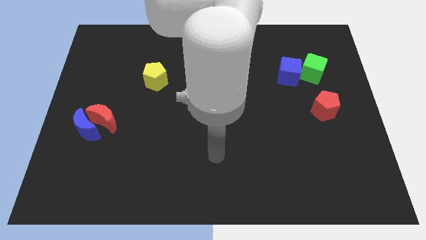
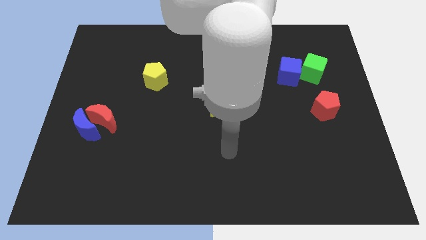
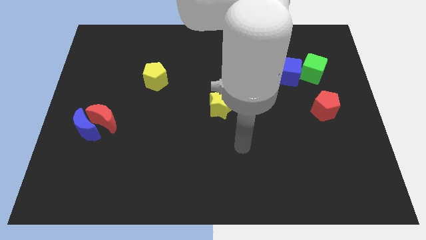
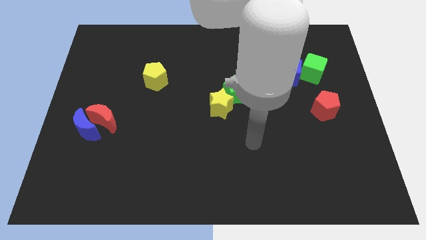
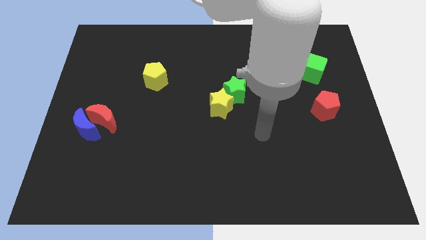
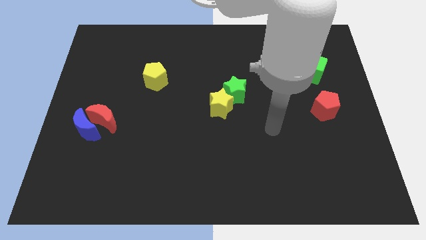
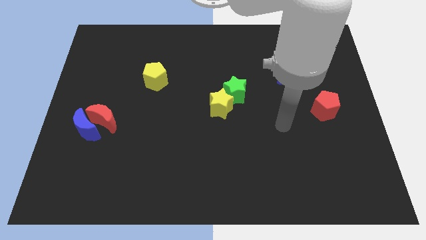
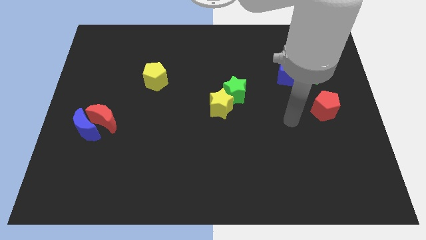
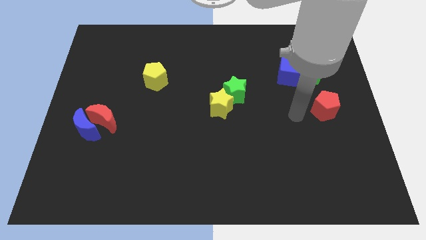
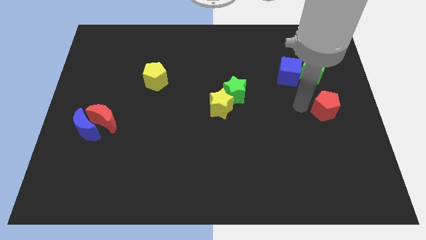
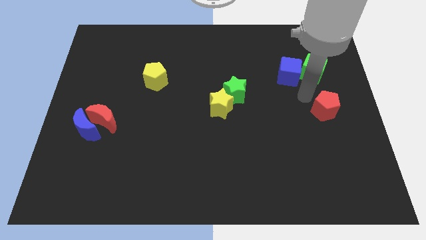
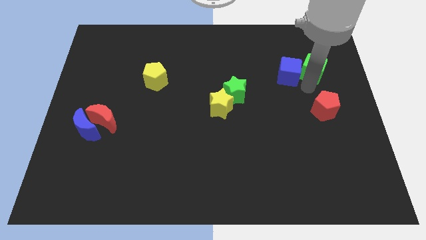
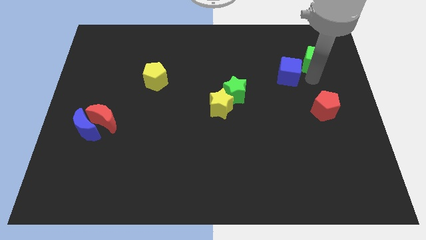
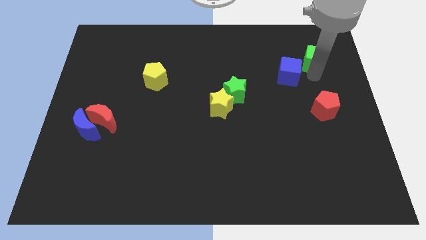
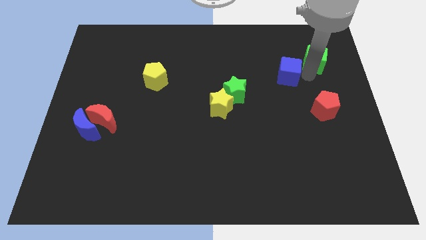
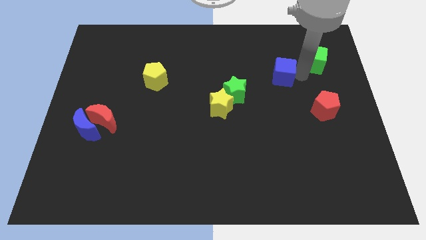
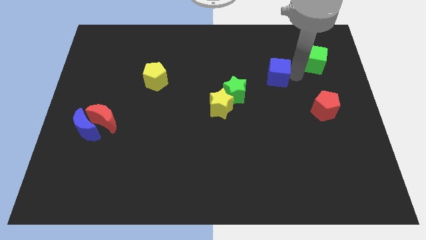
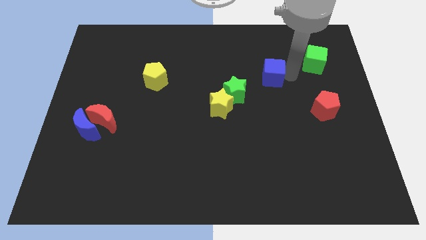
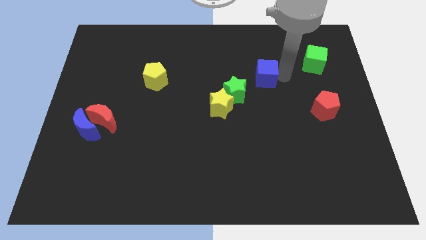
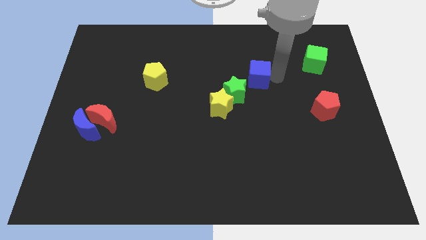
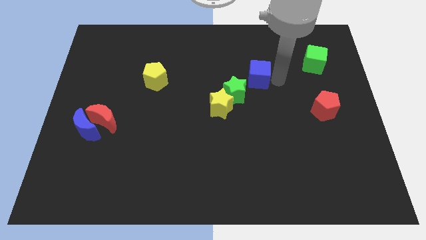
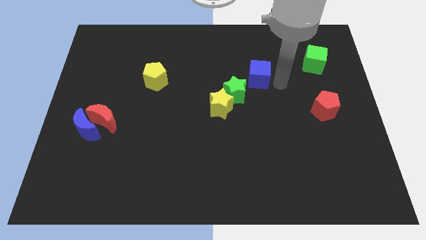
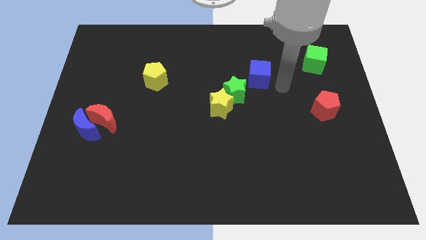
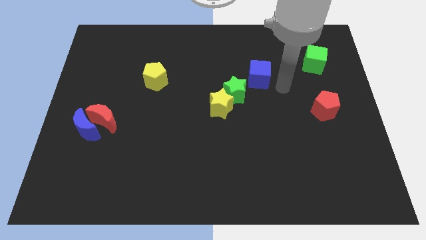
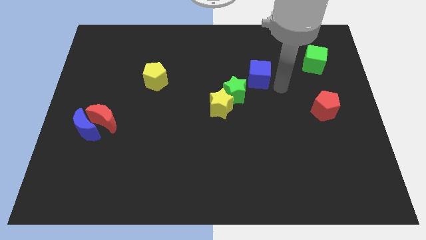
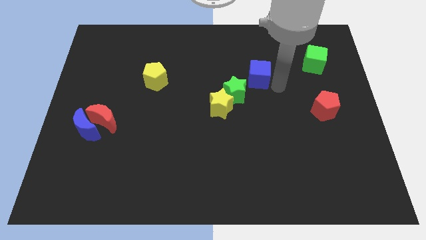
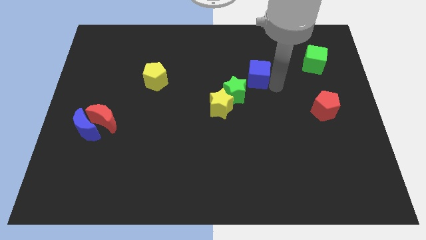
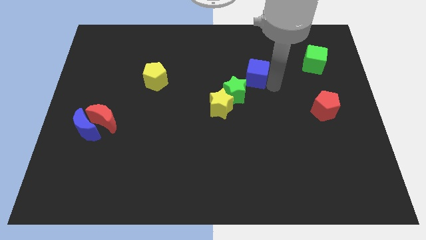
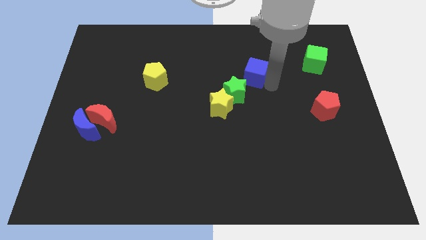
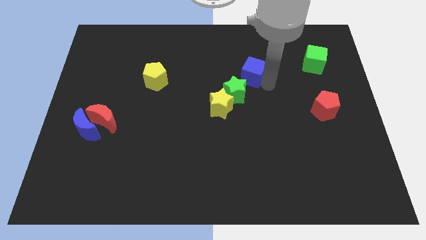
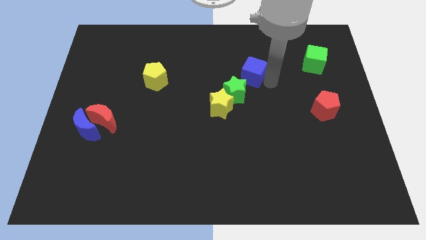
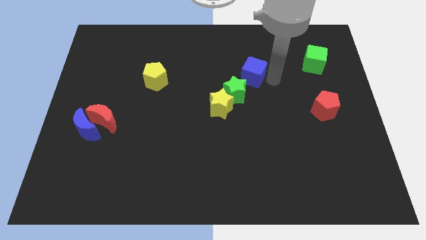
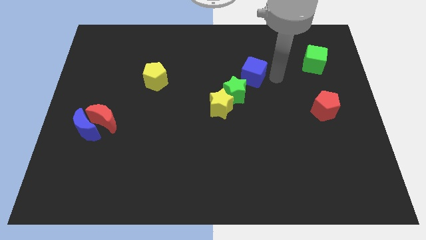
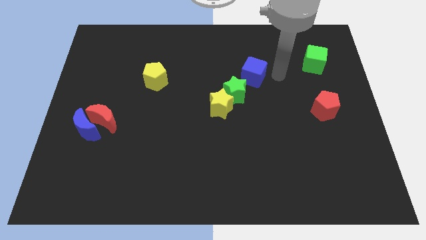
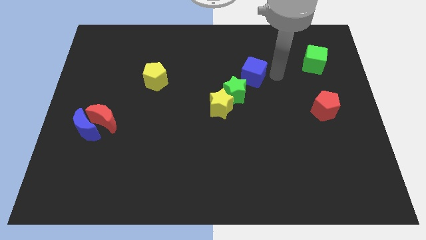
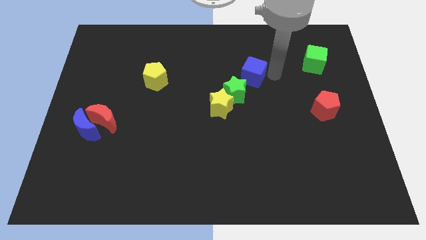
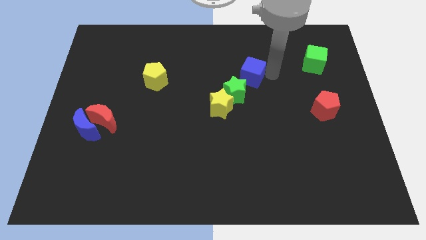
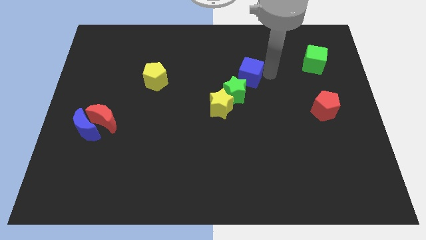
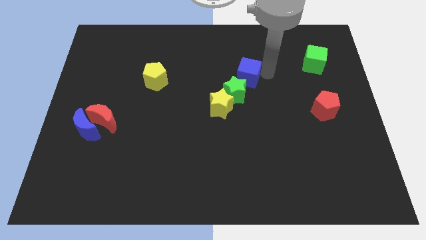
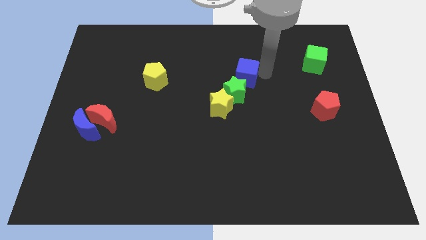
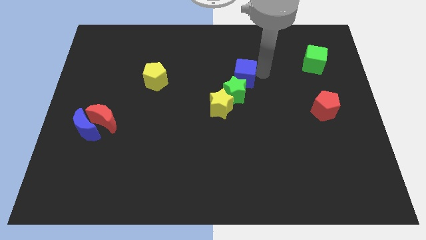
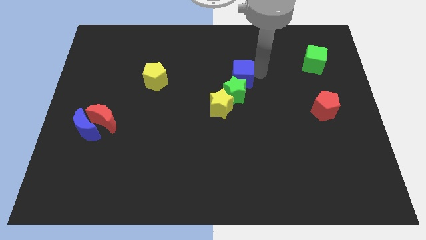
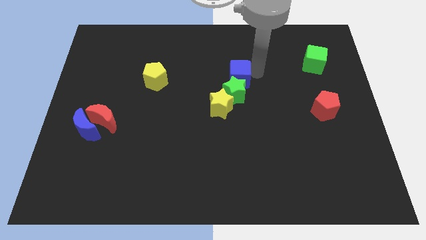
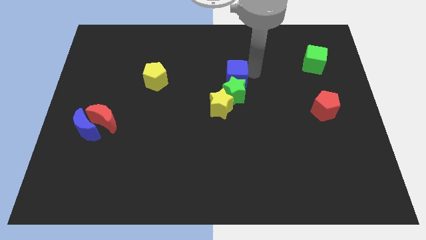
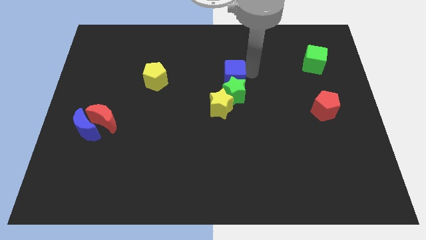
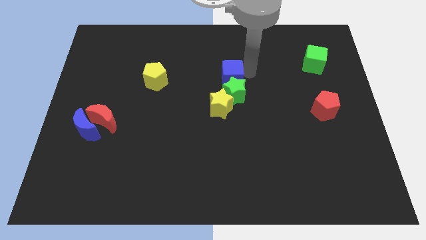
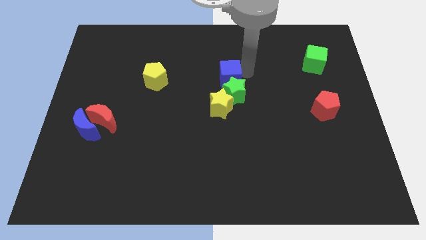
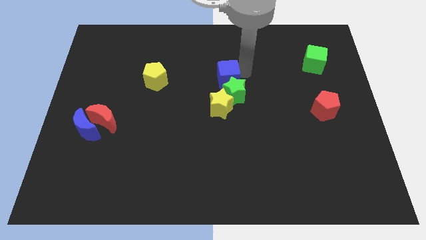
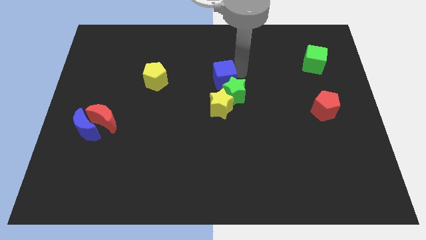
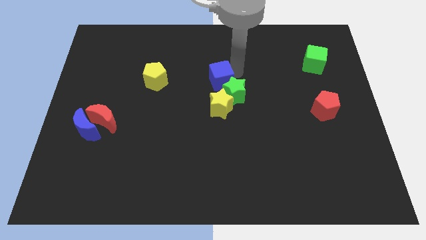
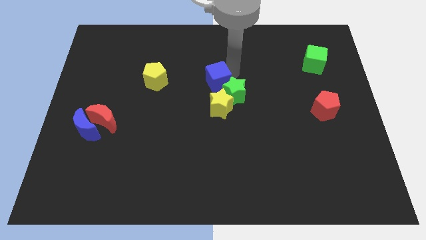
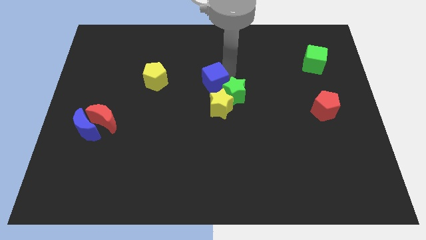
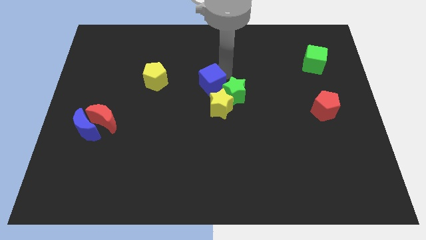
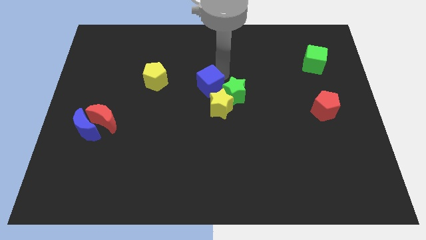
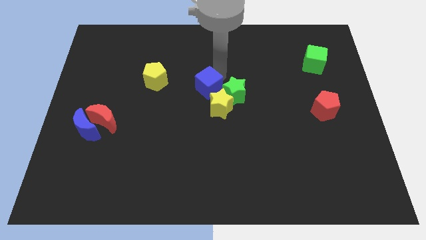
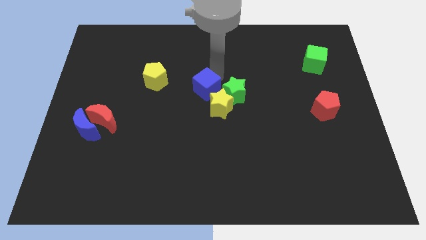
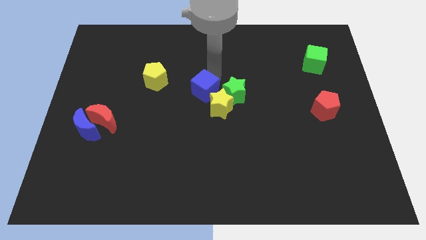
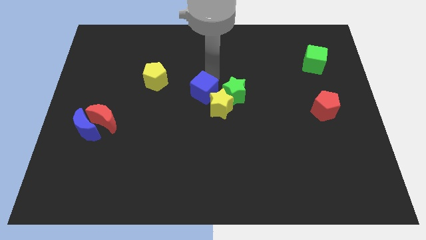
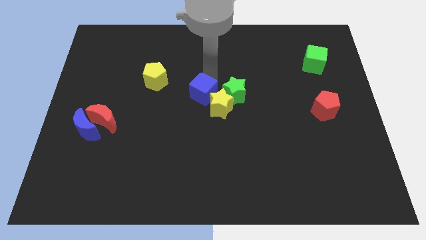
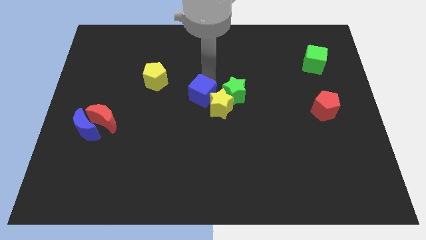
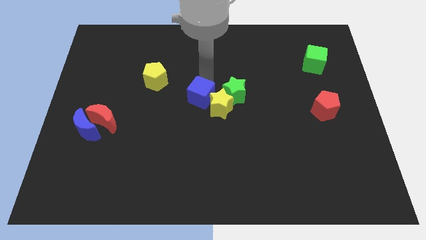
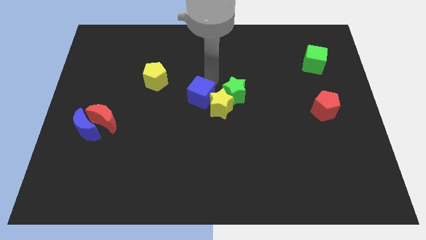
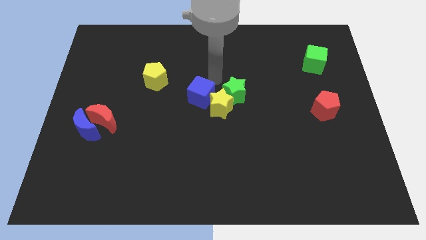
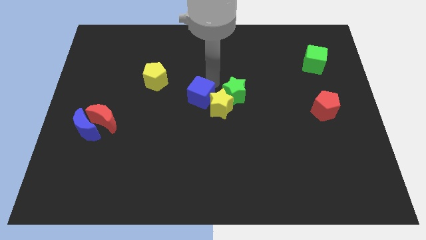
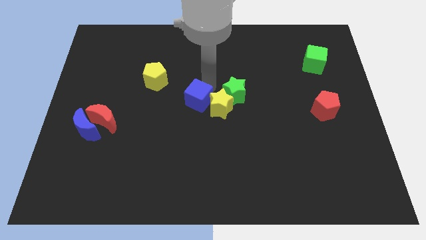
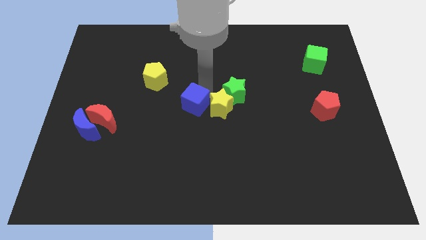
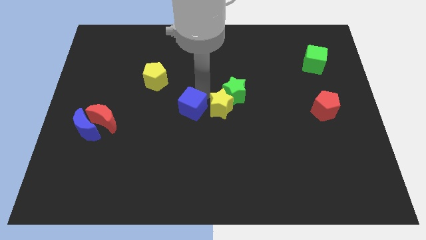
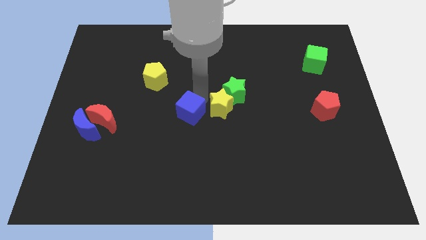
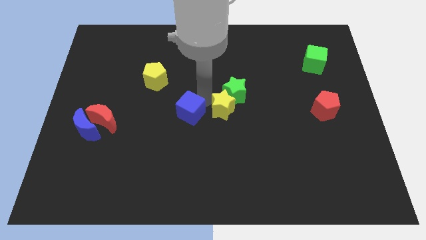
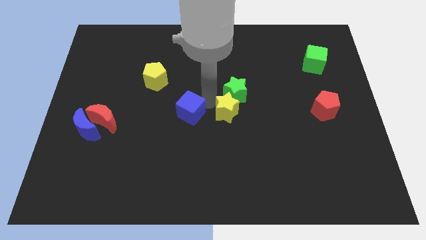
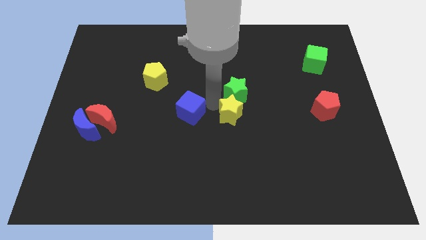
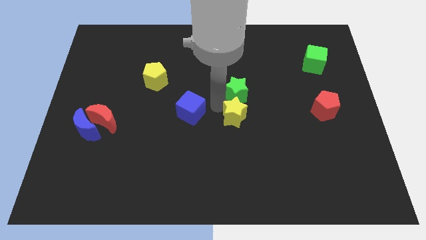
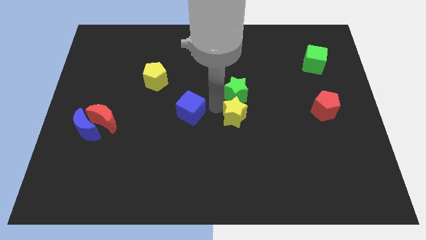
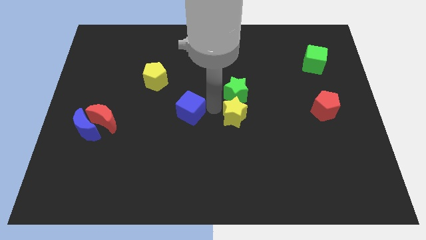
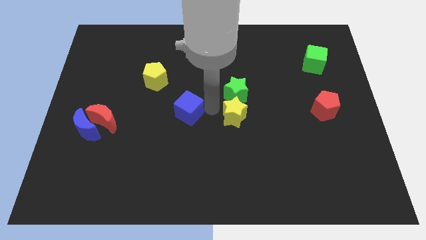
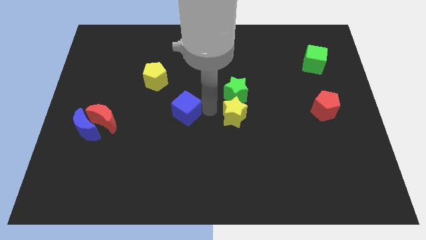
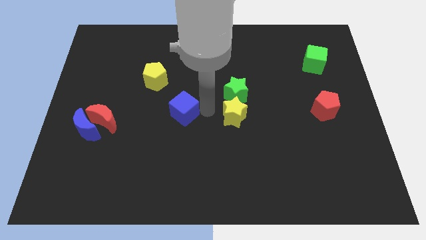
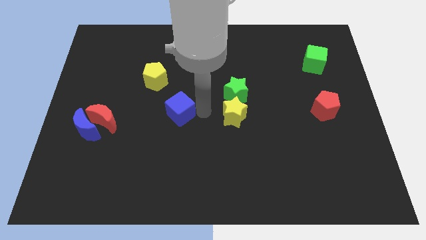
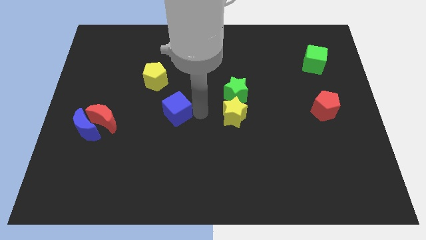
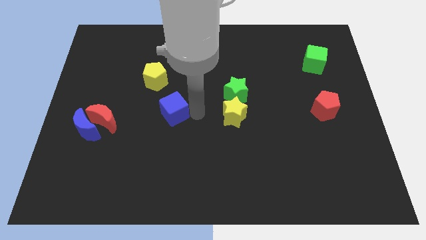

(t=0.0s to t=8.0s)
push the blue cube to the right side of the red moon
